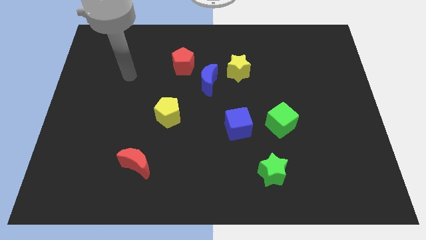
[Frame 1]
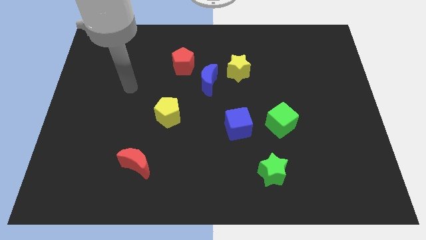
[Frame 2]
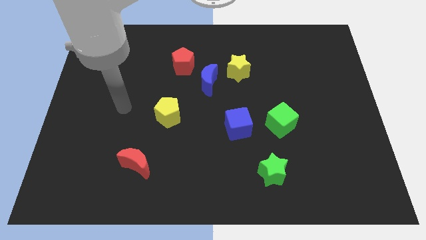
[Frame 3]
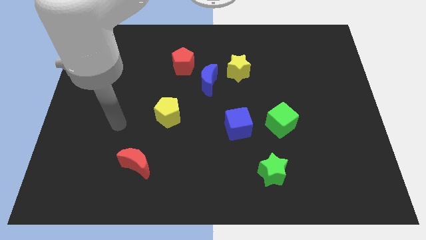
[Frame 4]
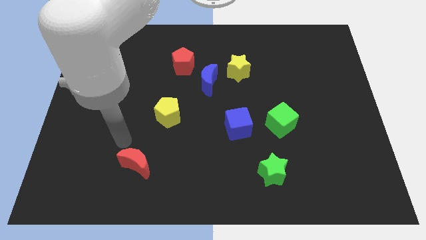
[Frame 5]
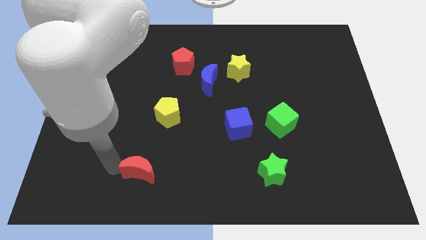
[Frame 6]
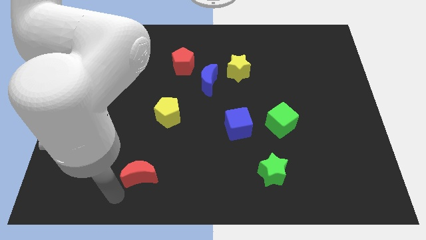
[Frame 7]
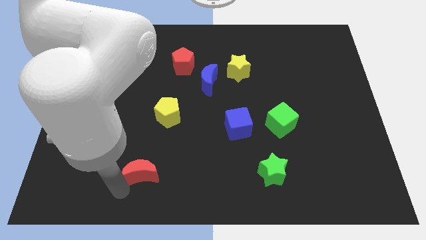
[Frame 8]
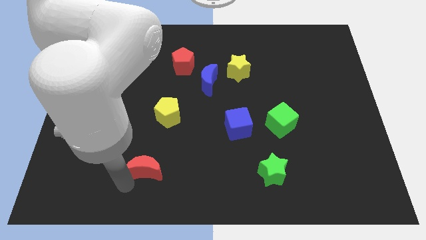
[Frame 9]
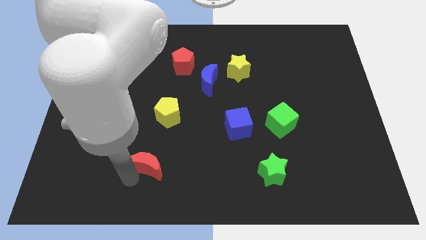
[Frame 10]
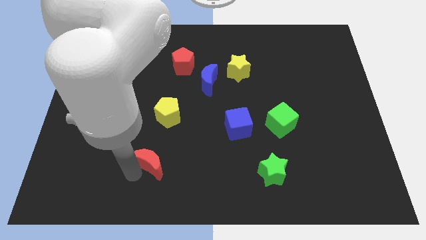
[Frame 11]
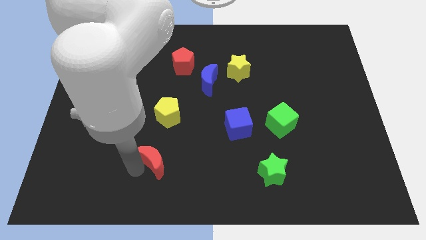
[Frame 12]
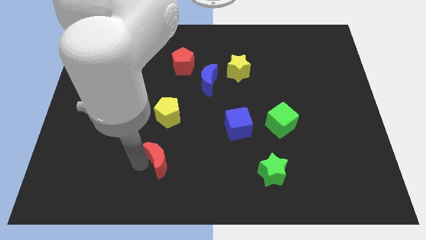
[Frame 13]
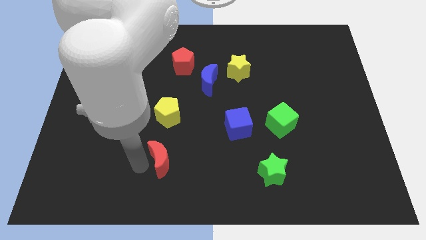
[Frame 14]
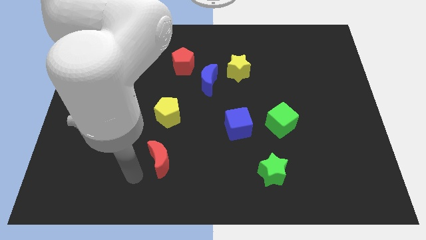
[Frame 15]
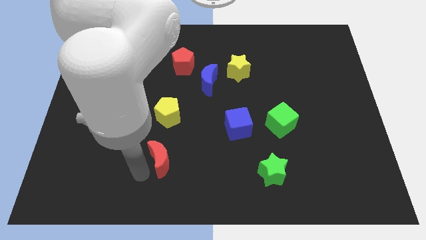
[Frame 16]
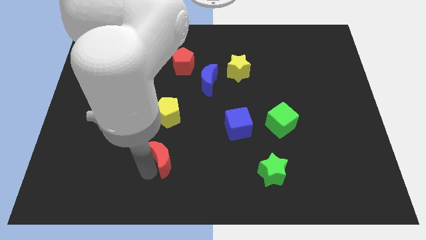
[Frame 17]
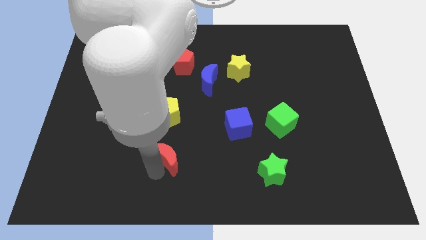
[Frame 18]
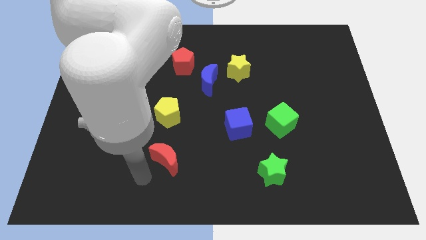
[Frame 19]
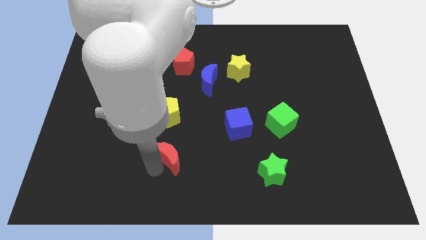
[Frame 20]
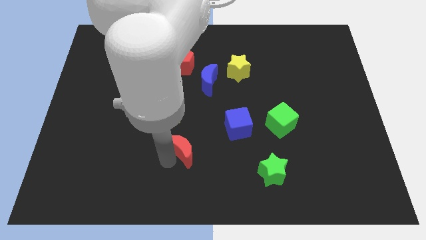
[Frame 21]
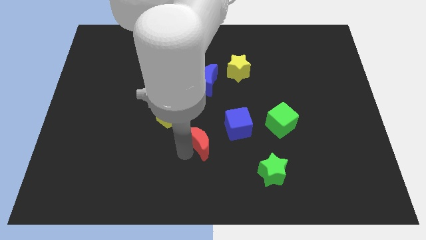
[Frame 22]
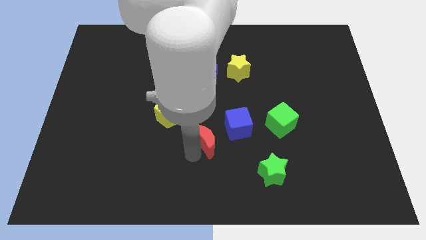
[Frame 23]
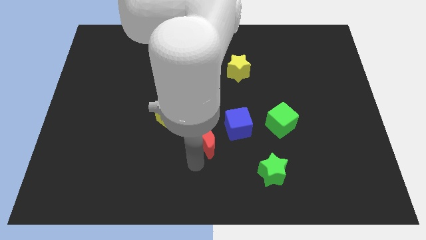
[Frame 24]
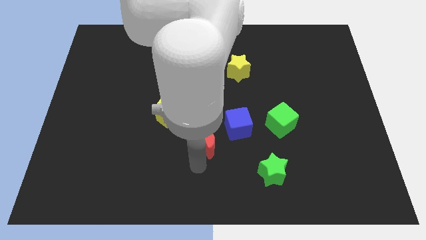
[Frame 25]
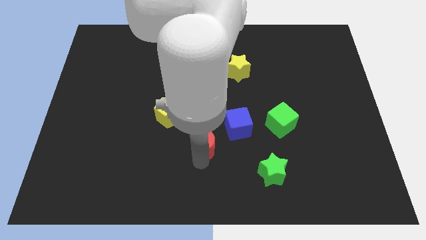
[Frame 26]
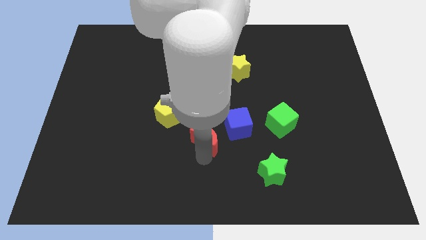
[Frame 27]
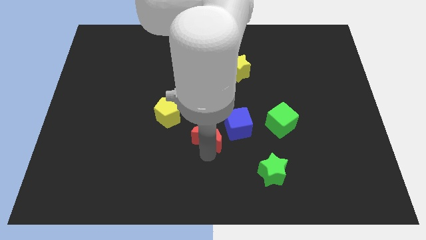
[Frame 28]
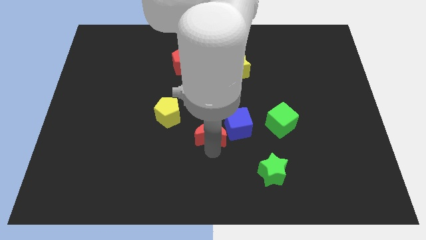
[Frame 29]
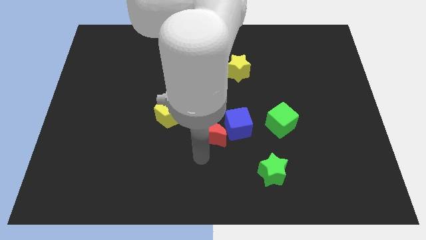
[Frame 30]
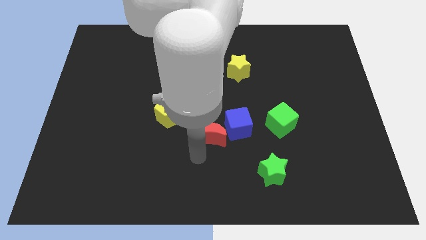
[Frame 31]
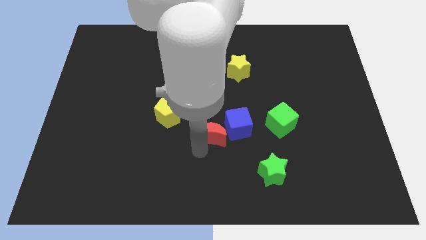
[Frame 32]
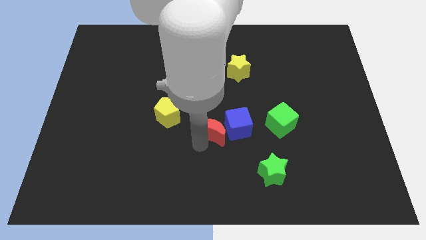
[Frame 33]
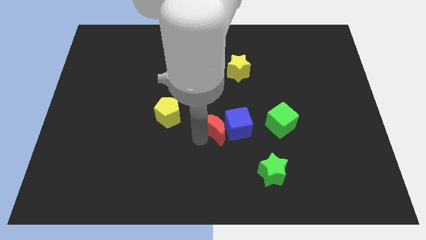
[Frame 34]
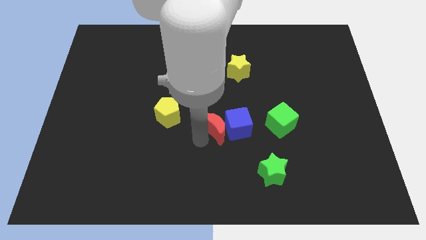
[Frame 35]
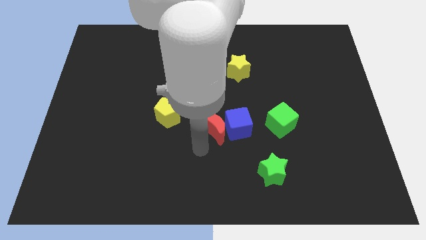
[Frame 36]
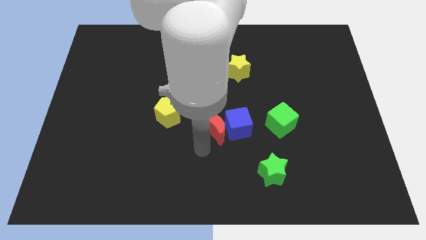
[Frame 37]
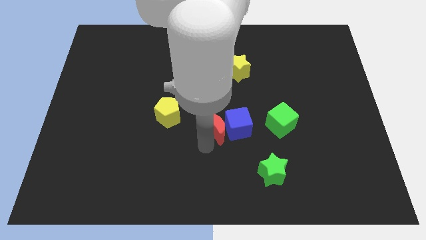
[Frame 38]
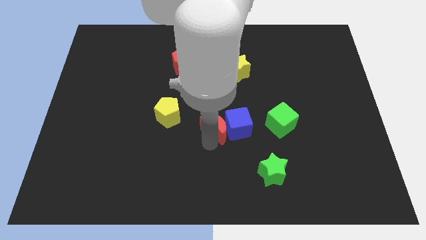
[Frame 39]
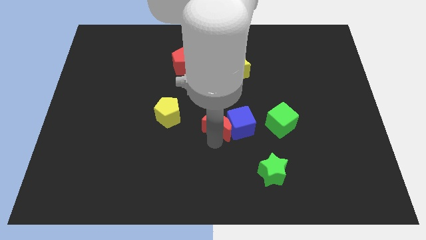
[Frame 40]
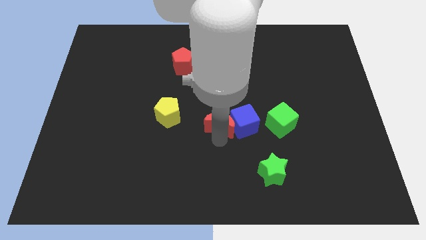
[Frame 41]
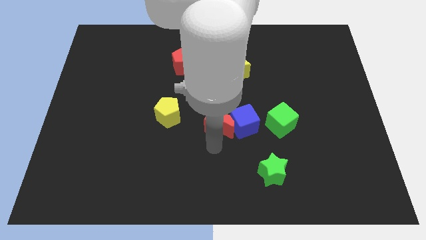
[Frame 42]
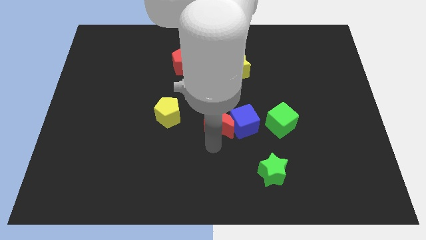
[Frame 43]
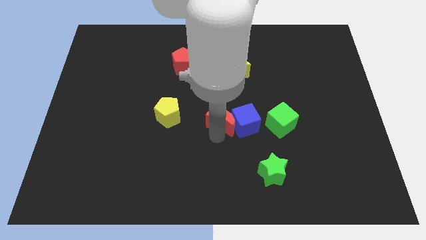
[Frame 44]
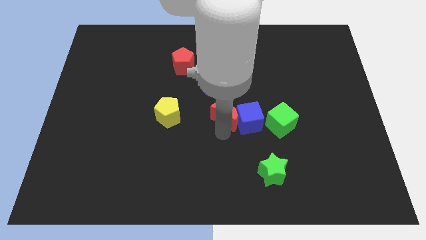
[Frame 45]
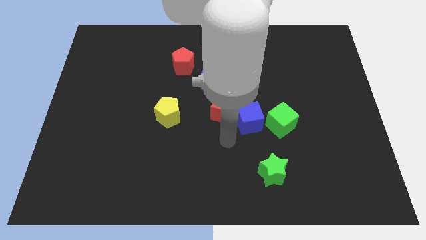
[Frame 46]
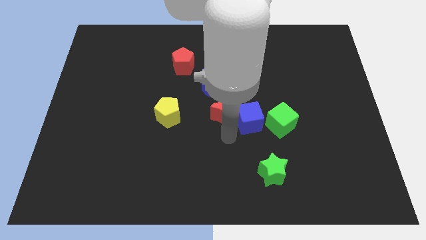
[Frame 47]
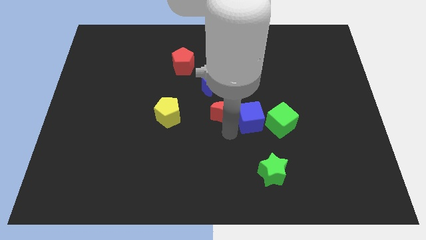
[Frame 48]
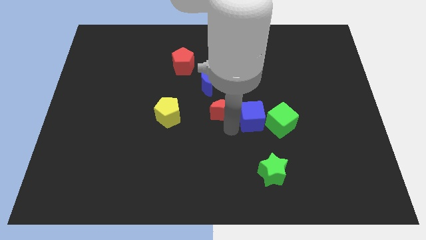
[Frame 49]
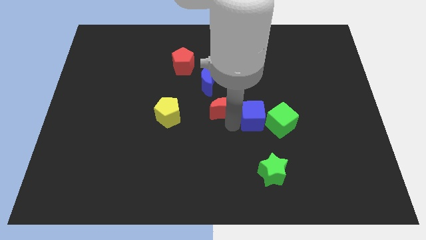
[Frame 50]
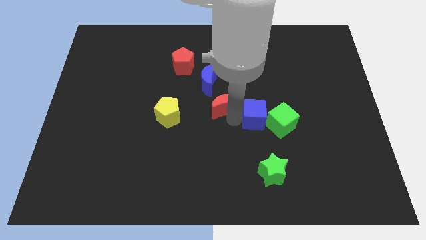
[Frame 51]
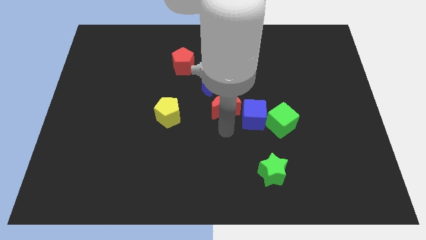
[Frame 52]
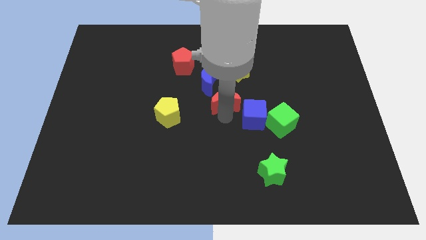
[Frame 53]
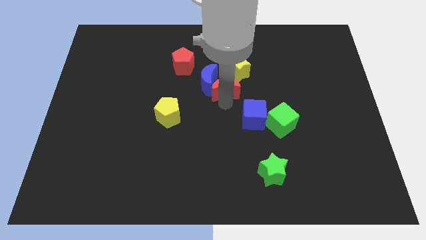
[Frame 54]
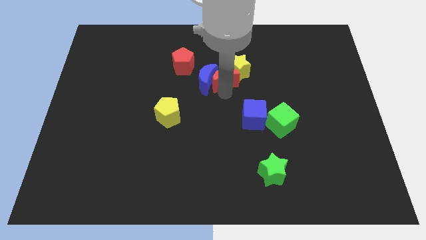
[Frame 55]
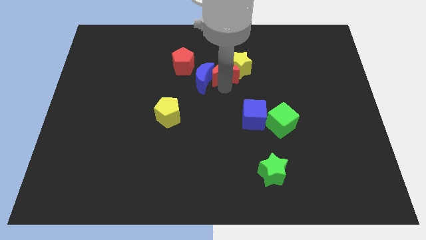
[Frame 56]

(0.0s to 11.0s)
move the red moon to the right side of the red pentagon

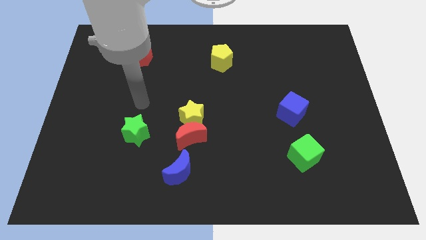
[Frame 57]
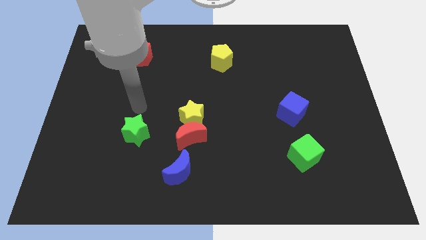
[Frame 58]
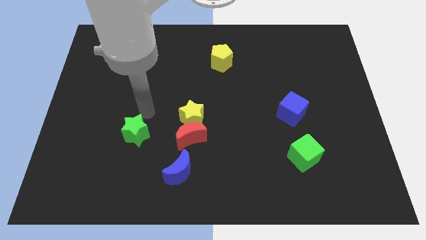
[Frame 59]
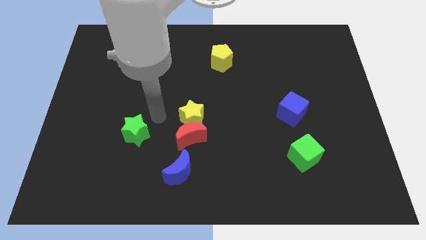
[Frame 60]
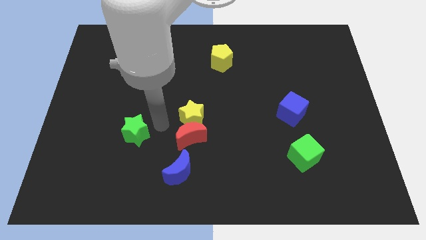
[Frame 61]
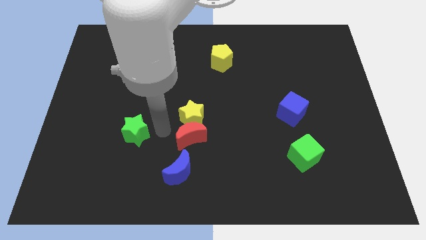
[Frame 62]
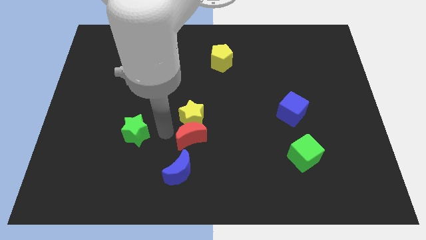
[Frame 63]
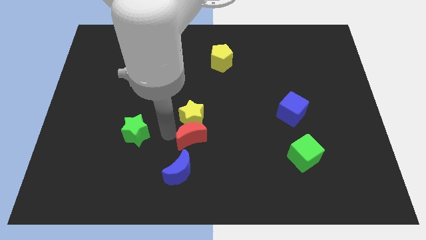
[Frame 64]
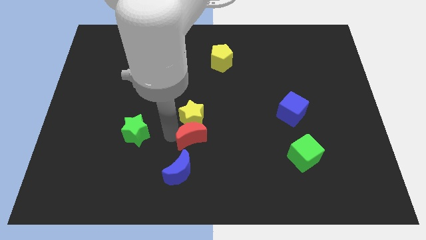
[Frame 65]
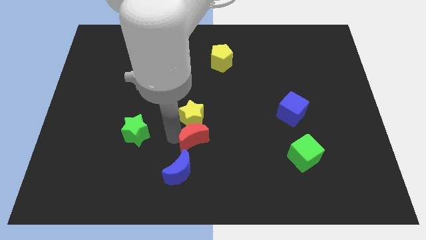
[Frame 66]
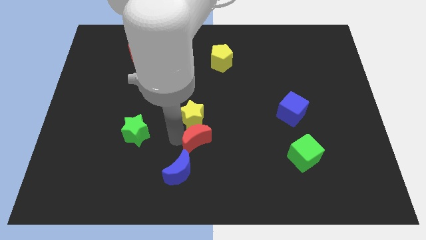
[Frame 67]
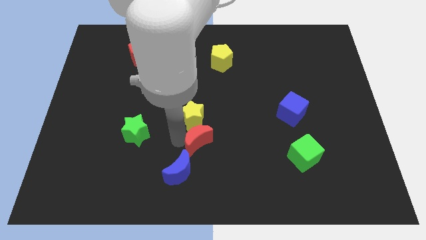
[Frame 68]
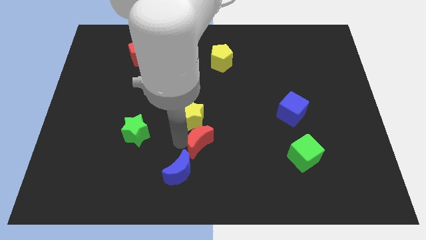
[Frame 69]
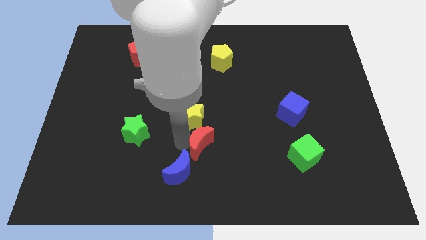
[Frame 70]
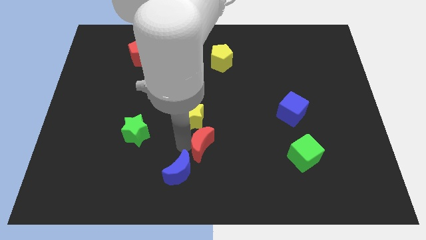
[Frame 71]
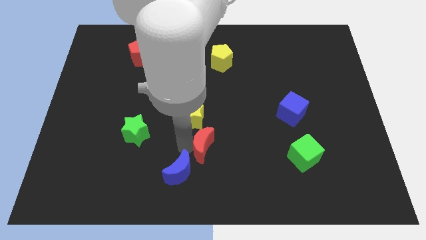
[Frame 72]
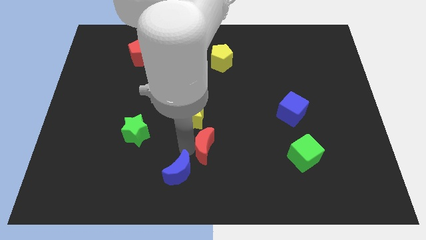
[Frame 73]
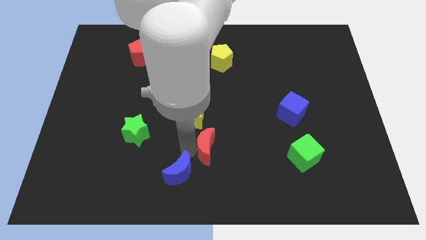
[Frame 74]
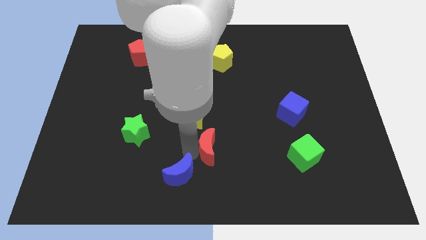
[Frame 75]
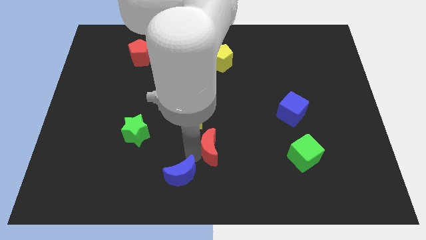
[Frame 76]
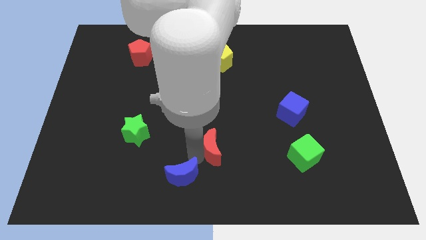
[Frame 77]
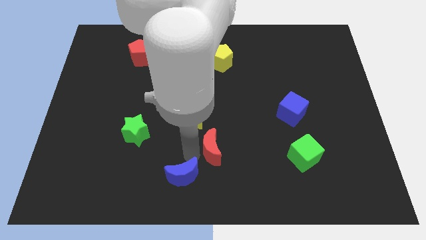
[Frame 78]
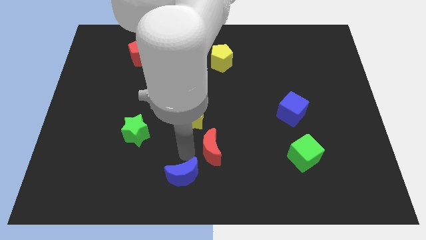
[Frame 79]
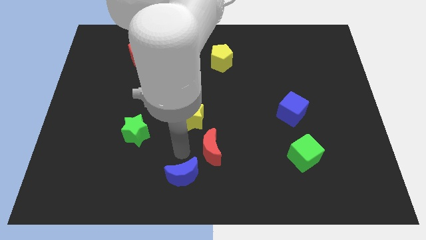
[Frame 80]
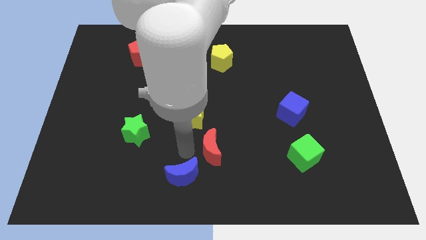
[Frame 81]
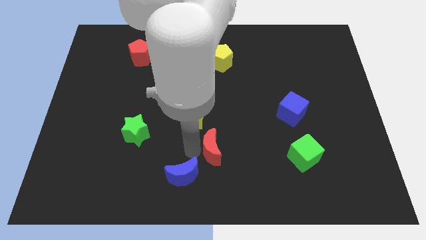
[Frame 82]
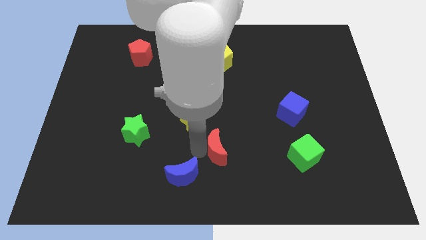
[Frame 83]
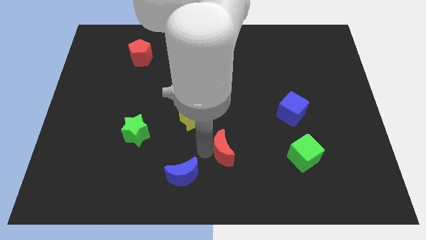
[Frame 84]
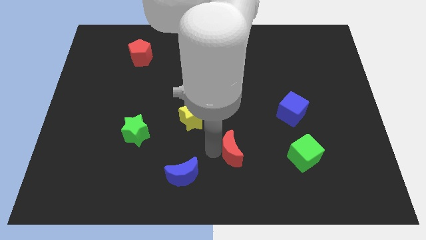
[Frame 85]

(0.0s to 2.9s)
put the red moon to the left of the green cube
